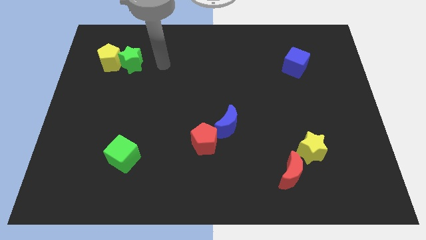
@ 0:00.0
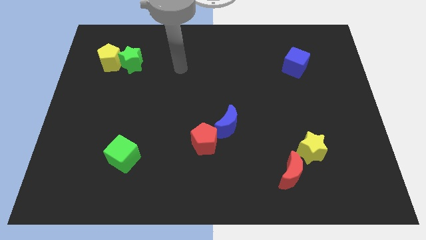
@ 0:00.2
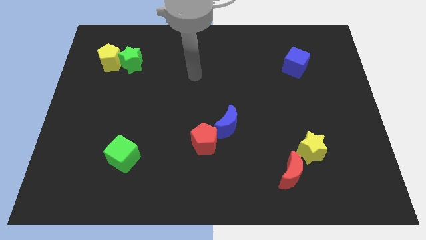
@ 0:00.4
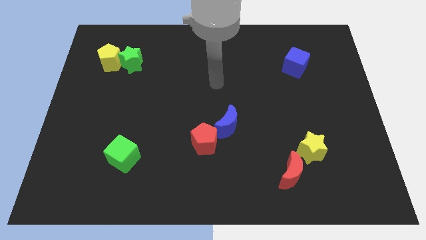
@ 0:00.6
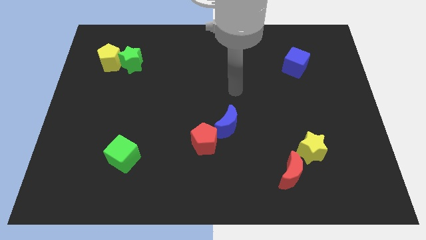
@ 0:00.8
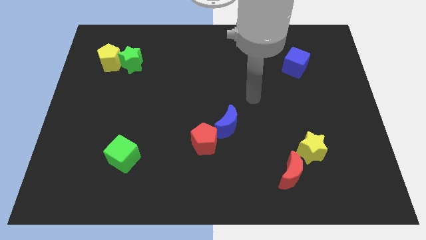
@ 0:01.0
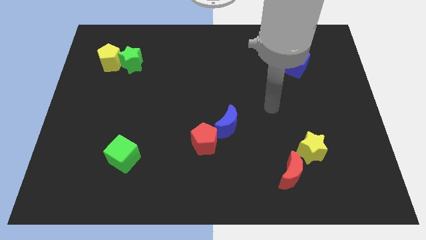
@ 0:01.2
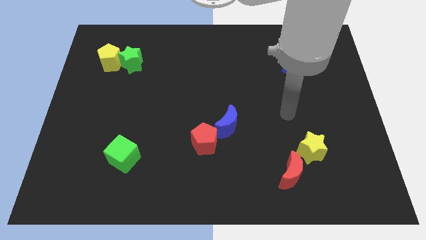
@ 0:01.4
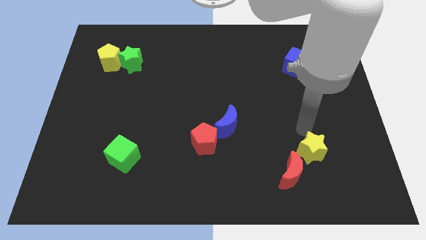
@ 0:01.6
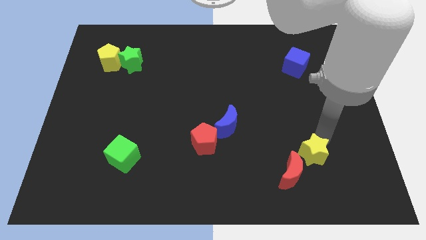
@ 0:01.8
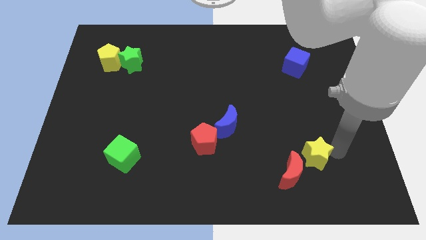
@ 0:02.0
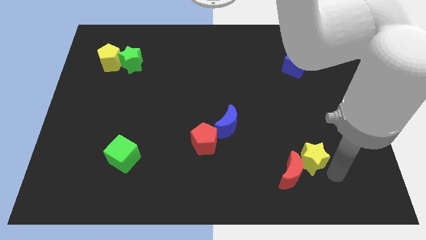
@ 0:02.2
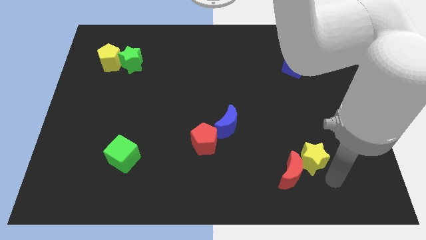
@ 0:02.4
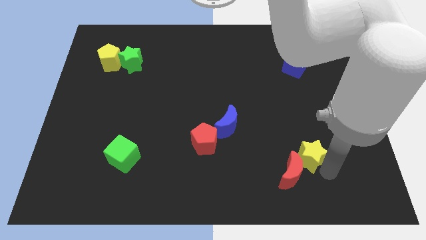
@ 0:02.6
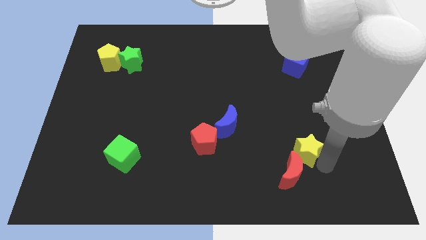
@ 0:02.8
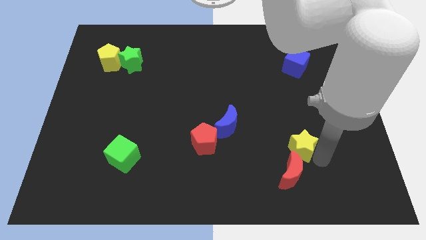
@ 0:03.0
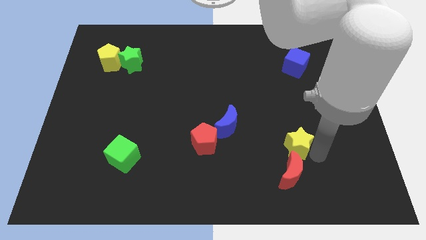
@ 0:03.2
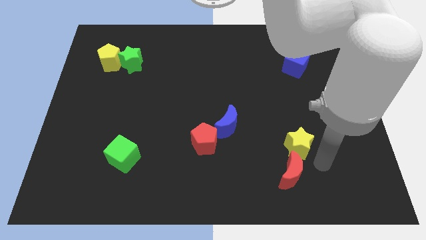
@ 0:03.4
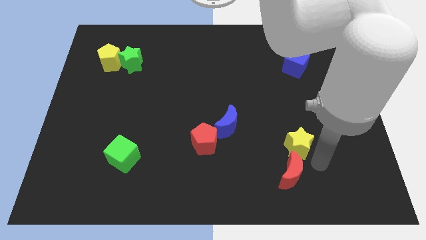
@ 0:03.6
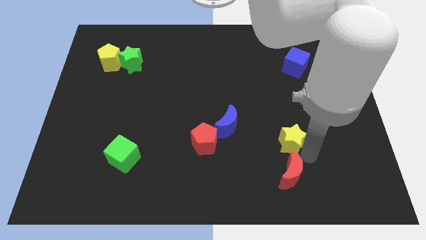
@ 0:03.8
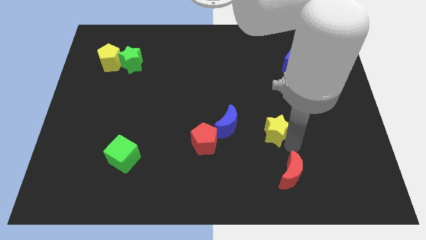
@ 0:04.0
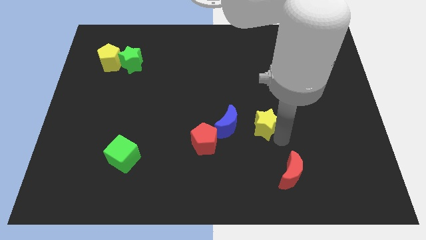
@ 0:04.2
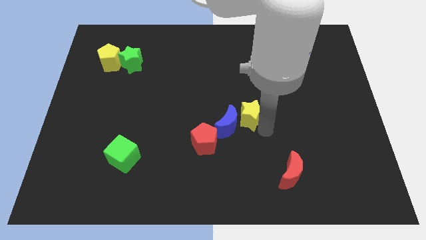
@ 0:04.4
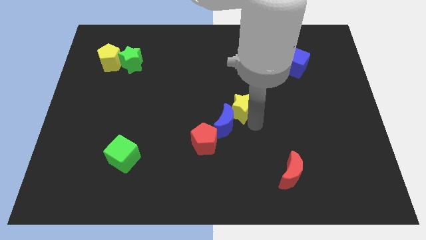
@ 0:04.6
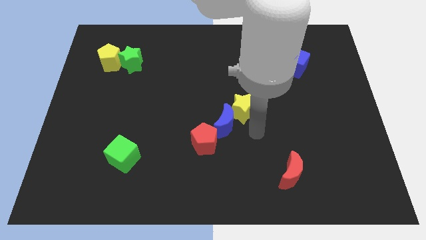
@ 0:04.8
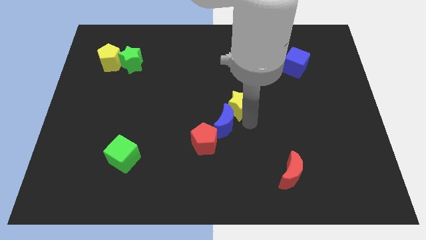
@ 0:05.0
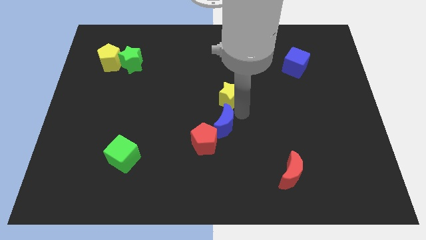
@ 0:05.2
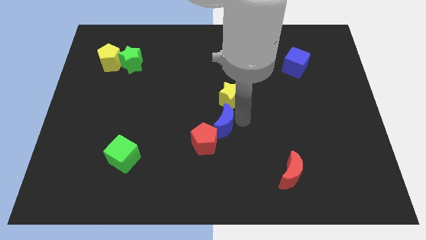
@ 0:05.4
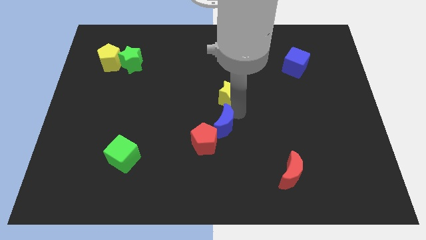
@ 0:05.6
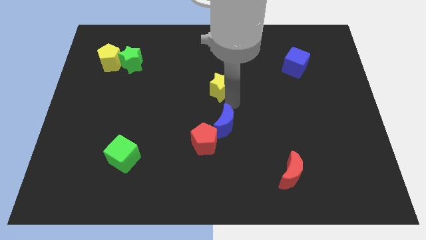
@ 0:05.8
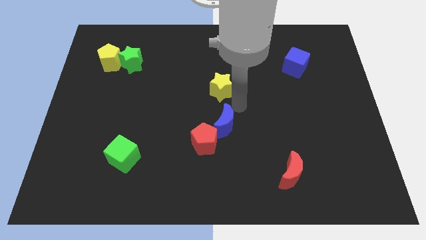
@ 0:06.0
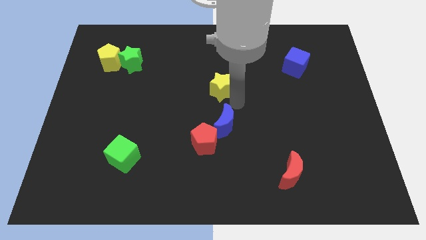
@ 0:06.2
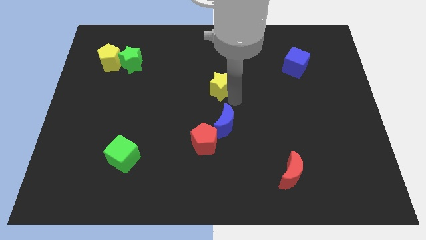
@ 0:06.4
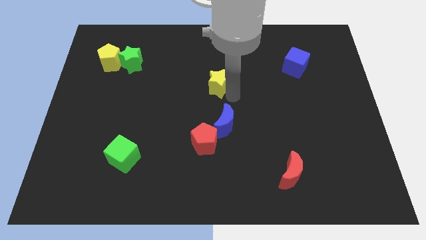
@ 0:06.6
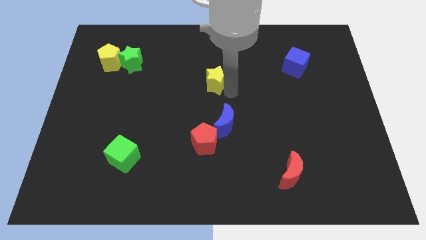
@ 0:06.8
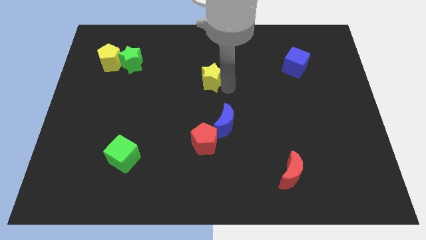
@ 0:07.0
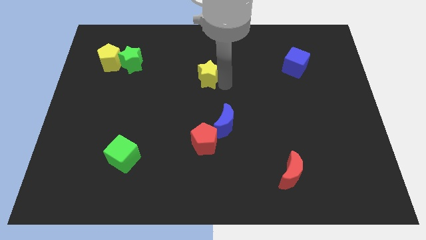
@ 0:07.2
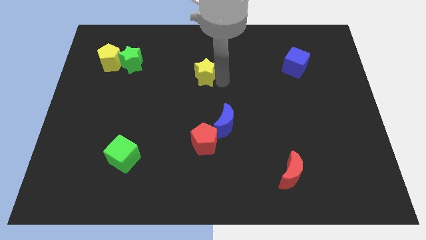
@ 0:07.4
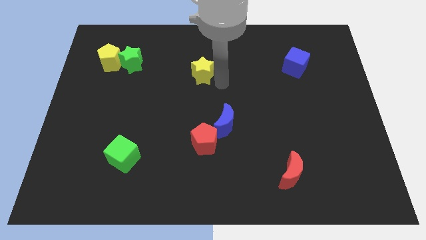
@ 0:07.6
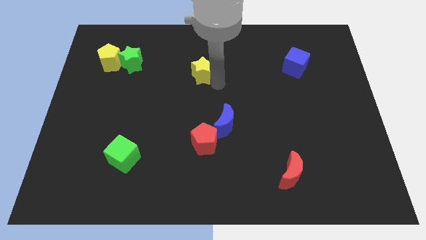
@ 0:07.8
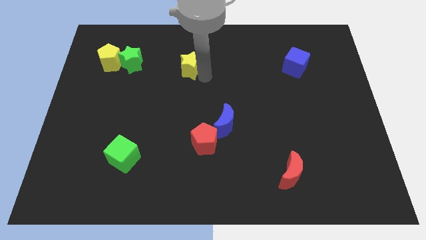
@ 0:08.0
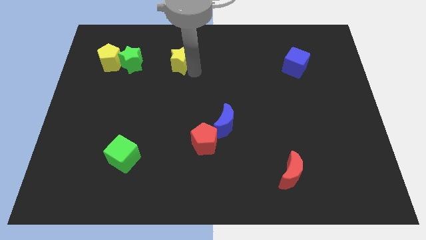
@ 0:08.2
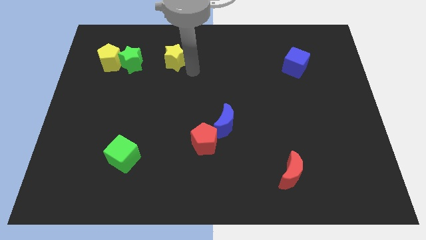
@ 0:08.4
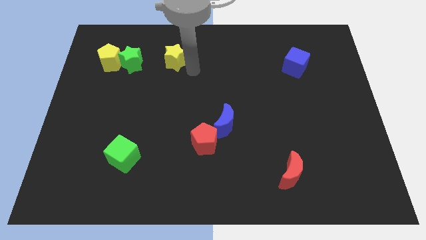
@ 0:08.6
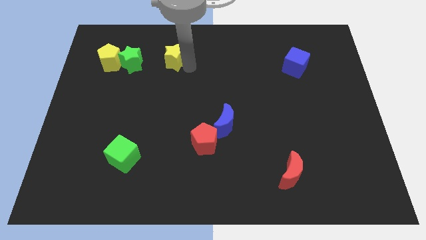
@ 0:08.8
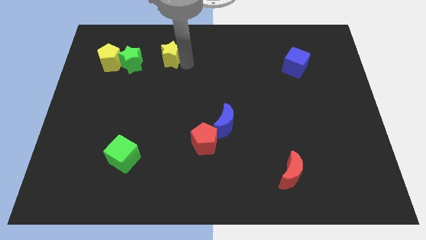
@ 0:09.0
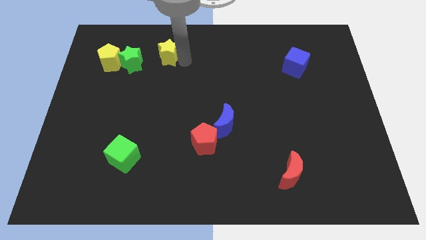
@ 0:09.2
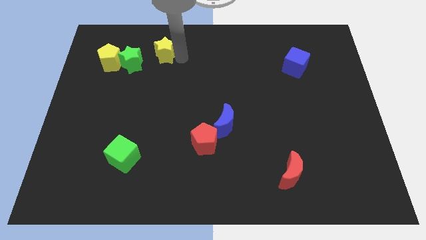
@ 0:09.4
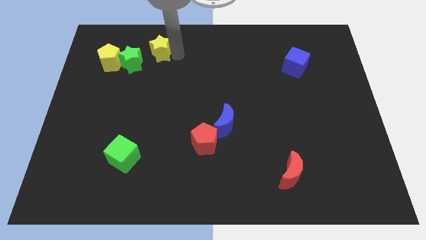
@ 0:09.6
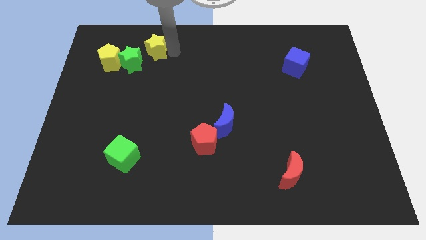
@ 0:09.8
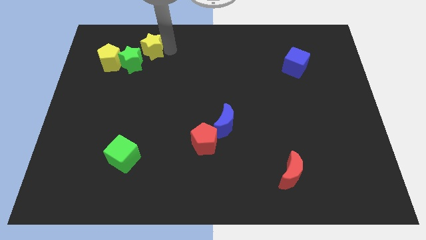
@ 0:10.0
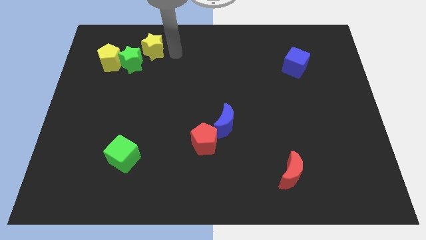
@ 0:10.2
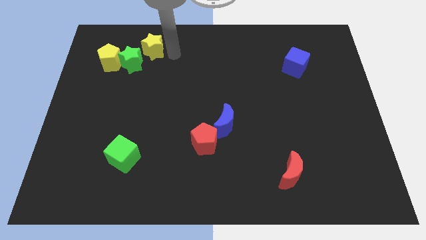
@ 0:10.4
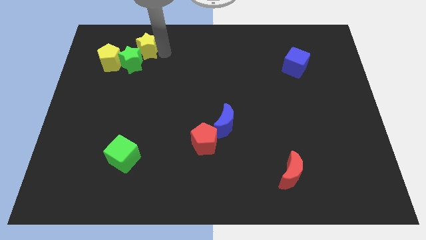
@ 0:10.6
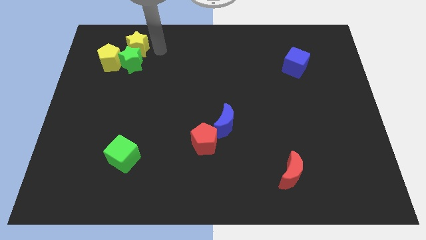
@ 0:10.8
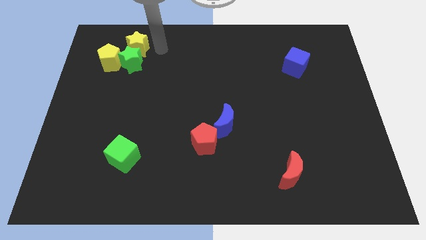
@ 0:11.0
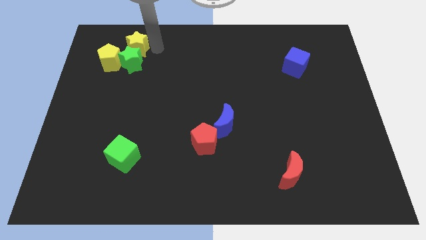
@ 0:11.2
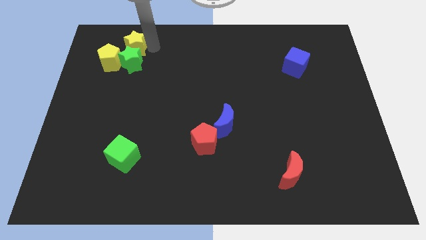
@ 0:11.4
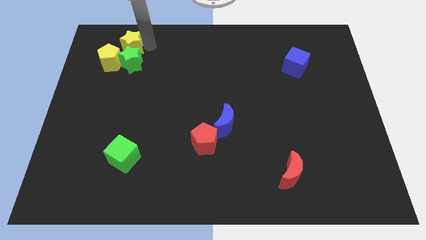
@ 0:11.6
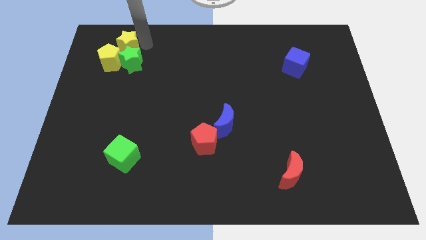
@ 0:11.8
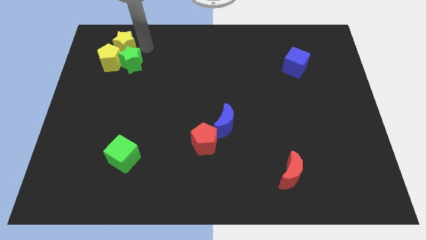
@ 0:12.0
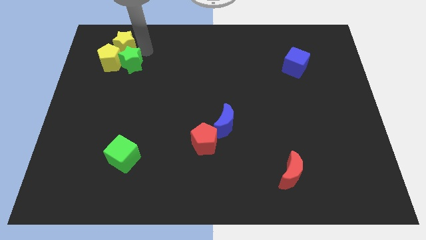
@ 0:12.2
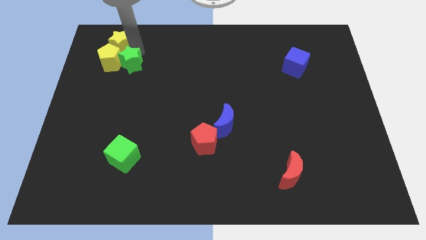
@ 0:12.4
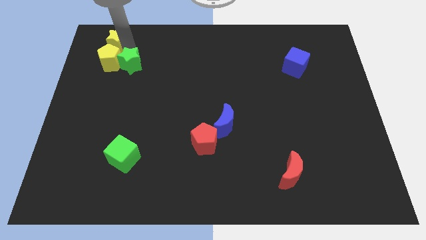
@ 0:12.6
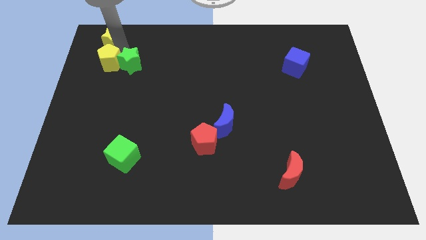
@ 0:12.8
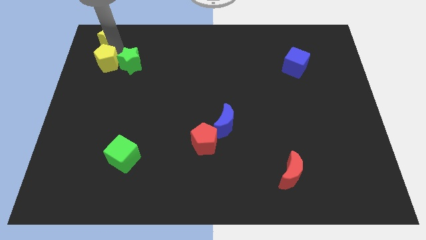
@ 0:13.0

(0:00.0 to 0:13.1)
put the yellow star to the top left of the board
